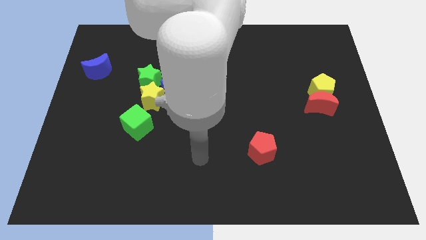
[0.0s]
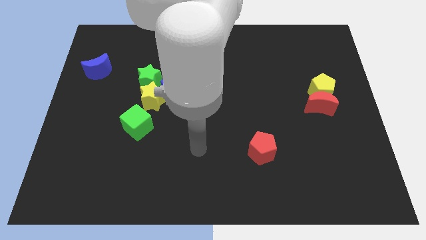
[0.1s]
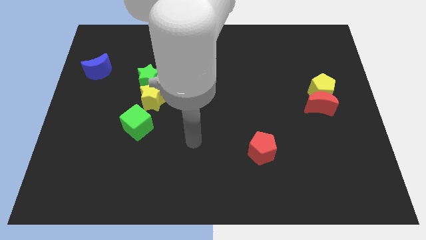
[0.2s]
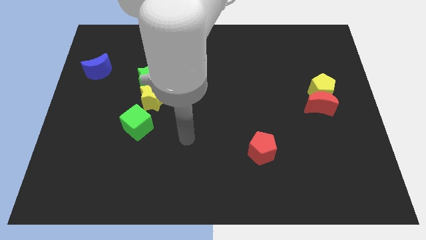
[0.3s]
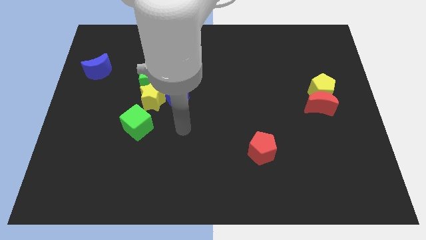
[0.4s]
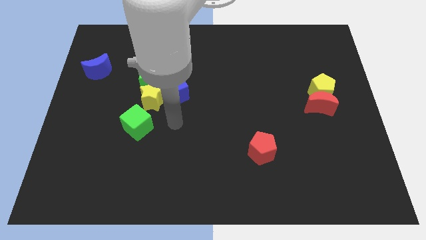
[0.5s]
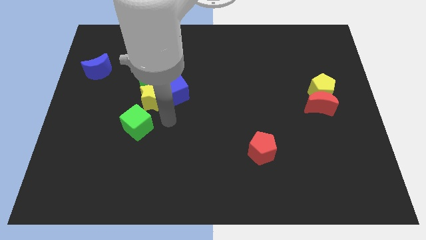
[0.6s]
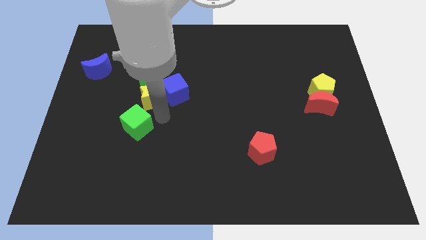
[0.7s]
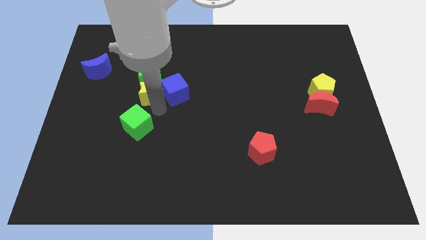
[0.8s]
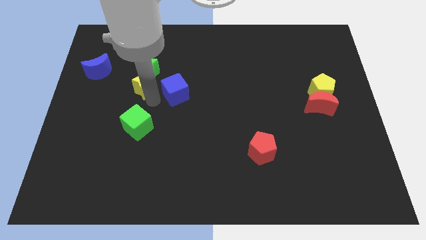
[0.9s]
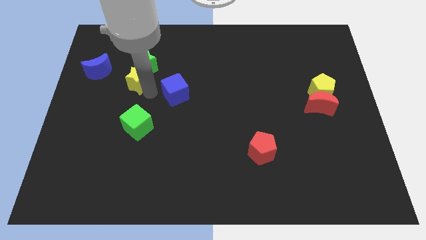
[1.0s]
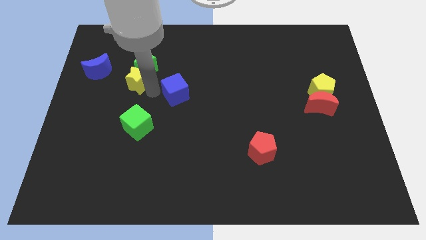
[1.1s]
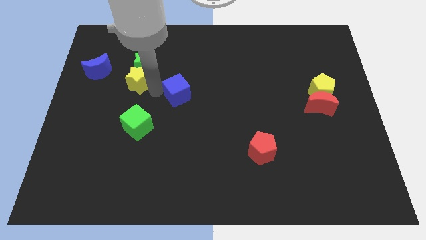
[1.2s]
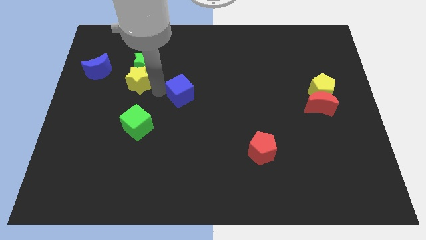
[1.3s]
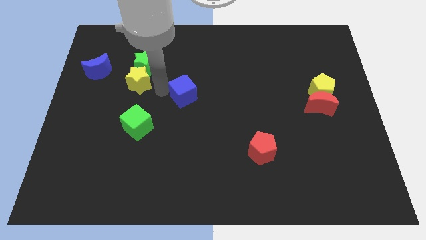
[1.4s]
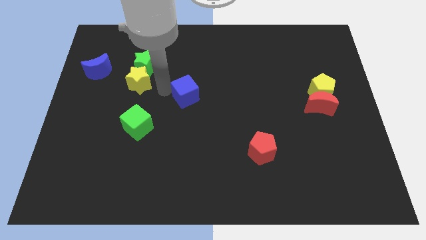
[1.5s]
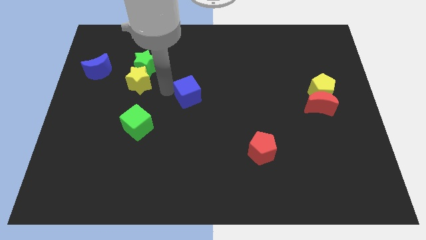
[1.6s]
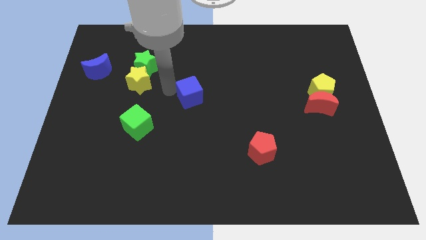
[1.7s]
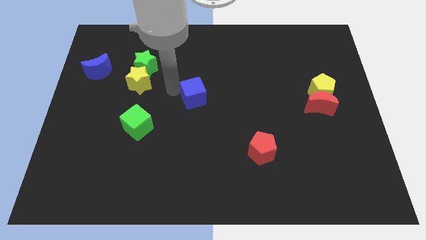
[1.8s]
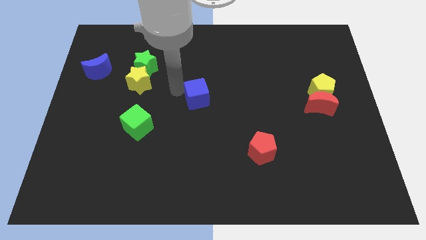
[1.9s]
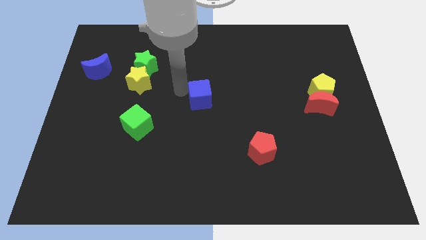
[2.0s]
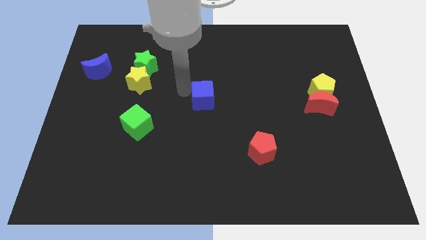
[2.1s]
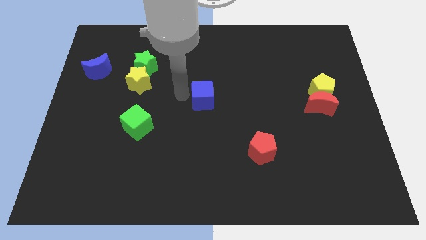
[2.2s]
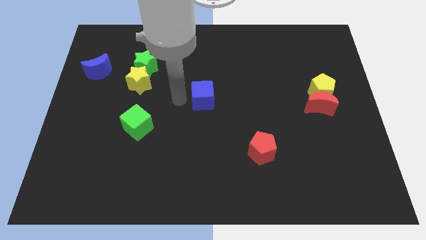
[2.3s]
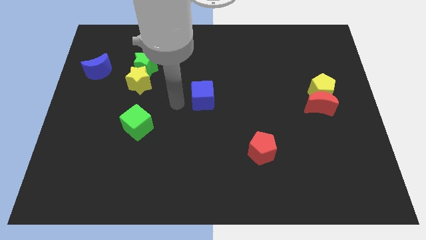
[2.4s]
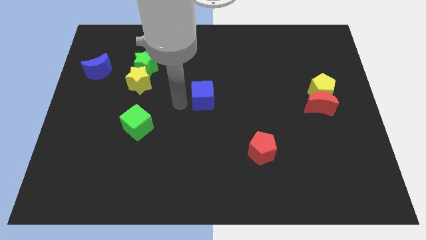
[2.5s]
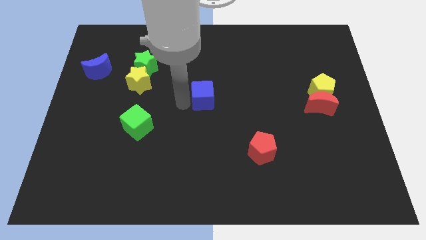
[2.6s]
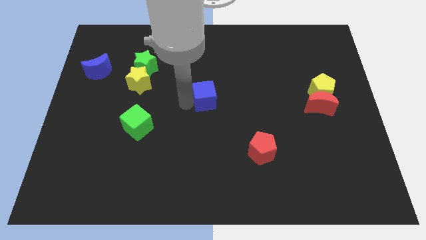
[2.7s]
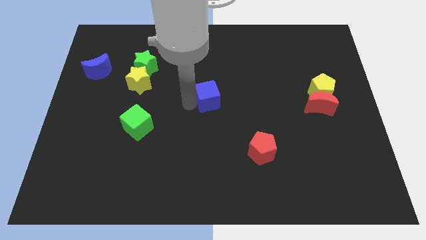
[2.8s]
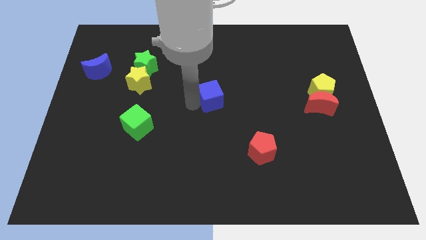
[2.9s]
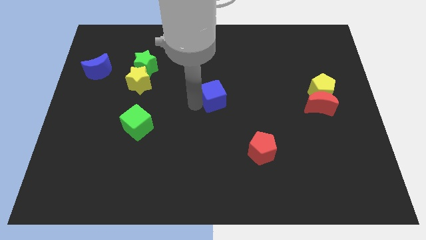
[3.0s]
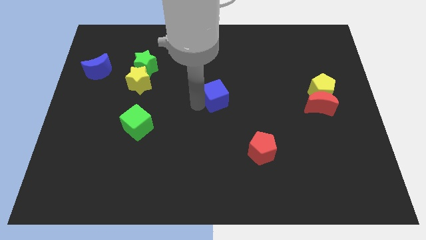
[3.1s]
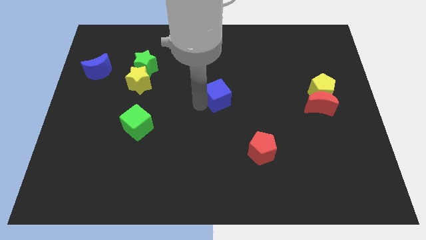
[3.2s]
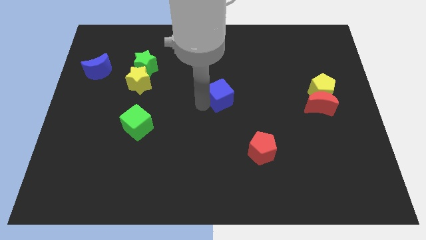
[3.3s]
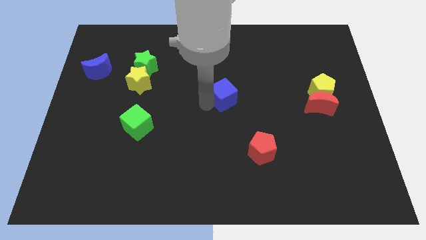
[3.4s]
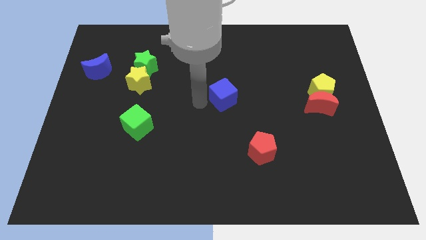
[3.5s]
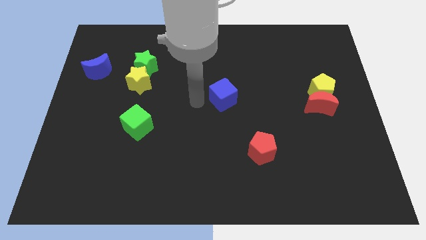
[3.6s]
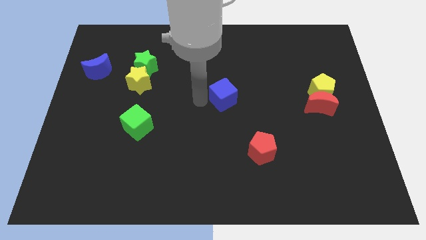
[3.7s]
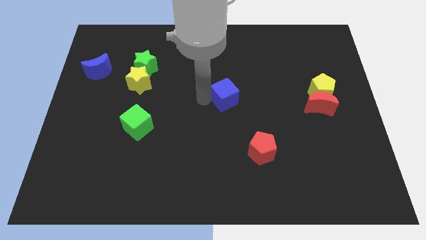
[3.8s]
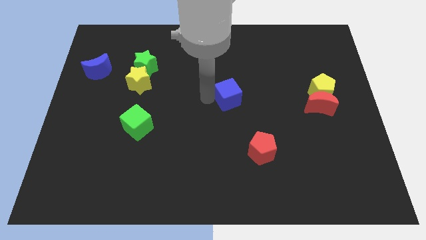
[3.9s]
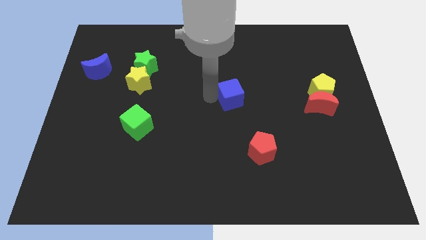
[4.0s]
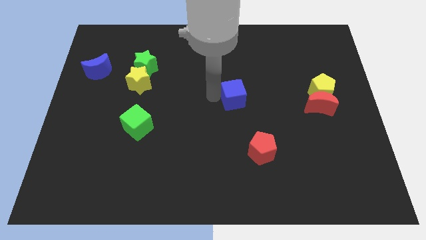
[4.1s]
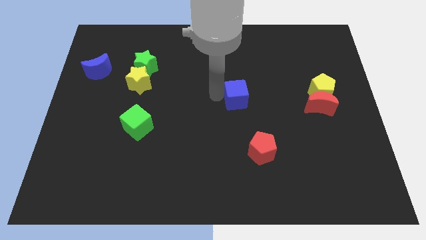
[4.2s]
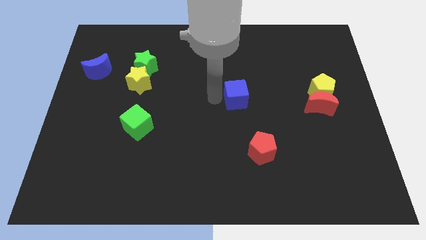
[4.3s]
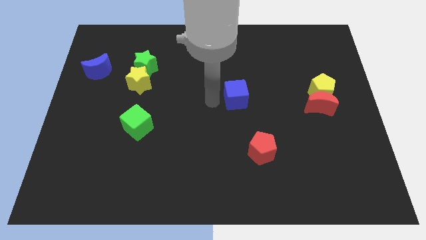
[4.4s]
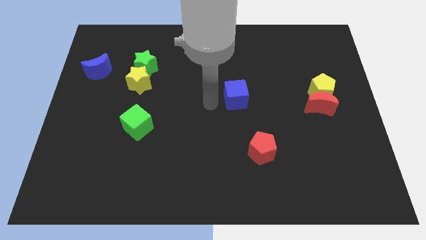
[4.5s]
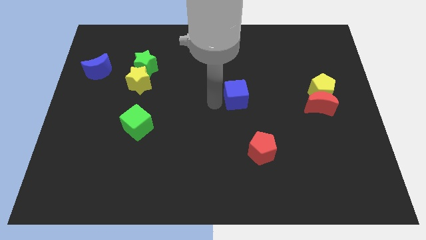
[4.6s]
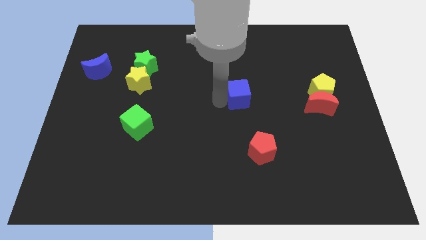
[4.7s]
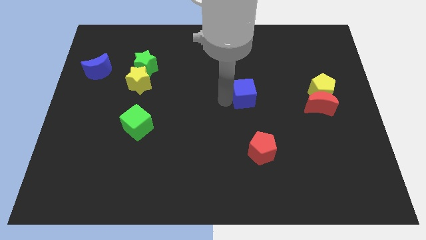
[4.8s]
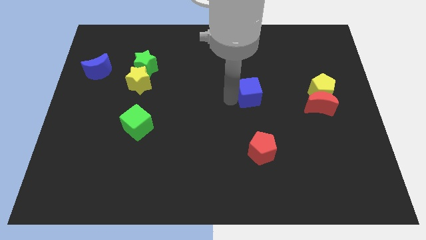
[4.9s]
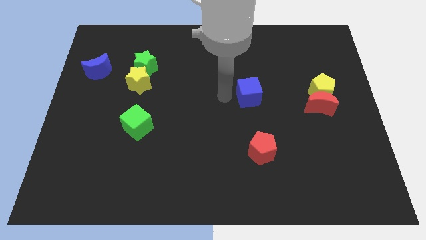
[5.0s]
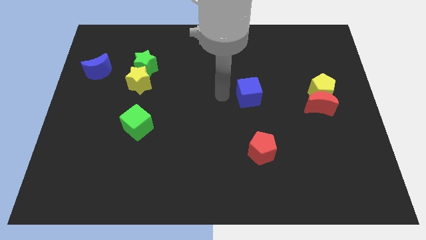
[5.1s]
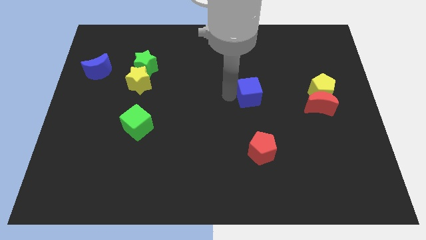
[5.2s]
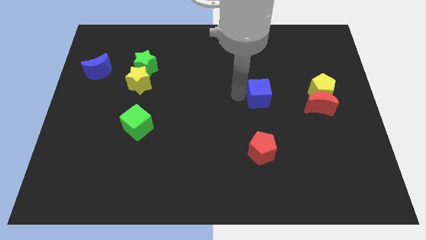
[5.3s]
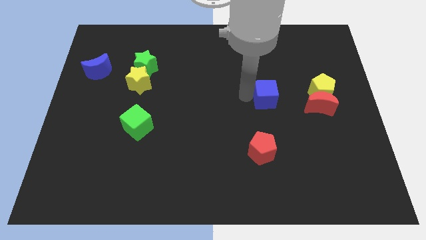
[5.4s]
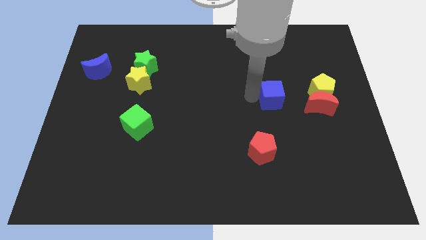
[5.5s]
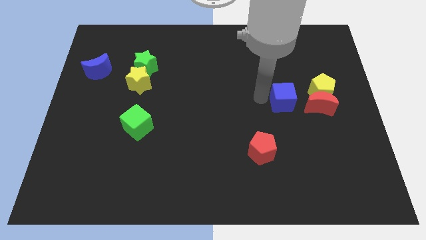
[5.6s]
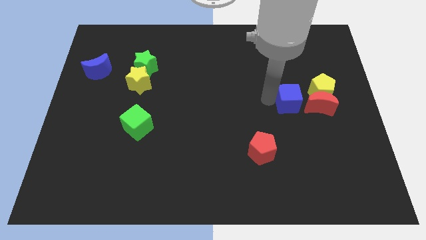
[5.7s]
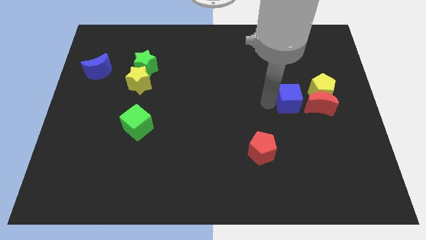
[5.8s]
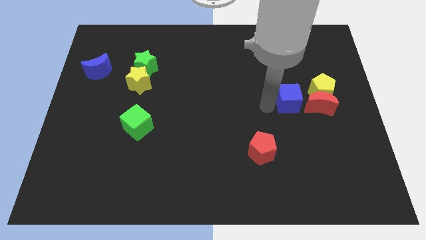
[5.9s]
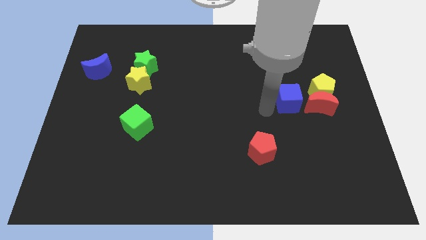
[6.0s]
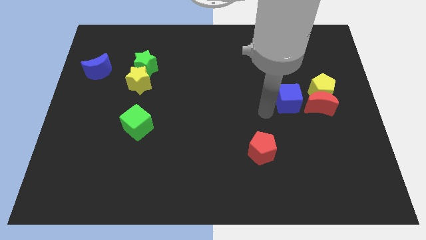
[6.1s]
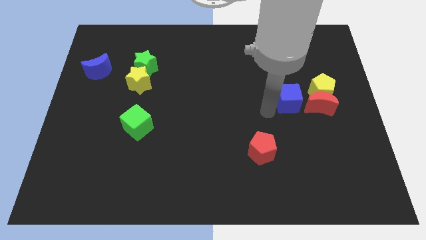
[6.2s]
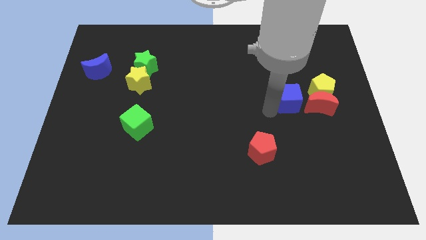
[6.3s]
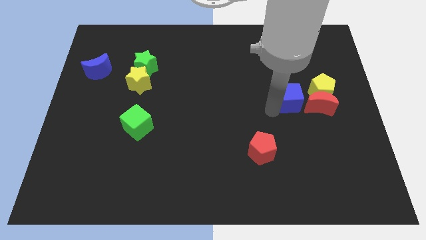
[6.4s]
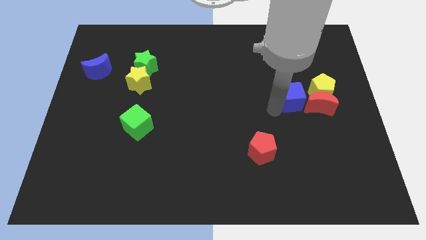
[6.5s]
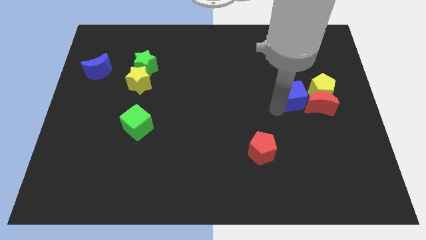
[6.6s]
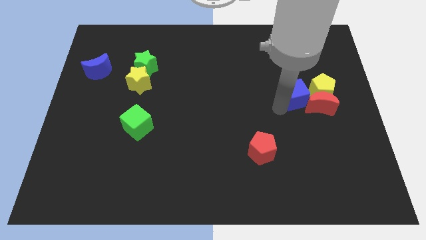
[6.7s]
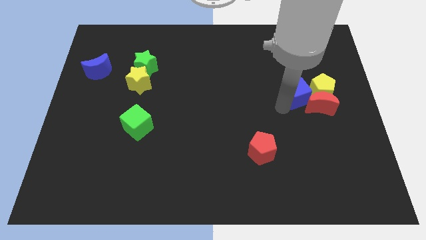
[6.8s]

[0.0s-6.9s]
push the blue cube to the yellow pentagon

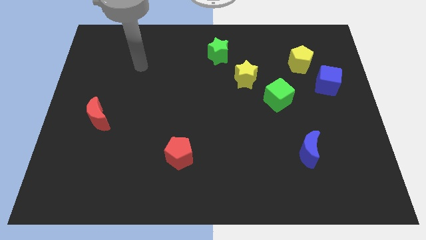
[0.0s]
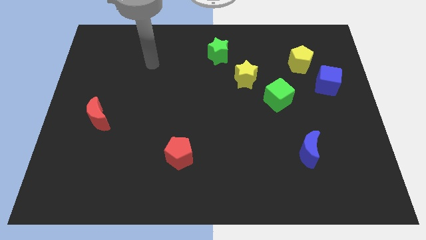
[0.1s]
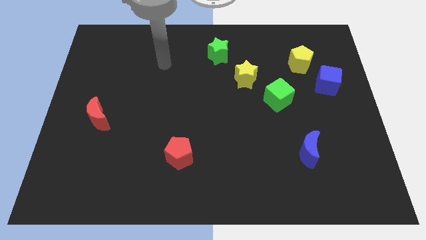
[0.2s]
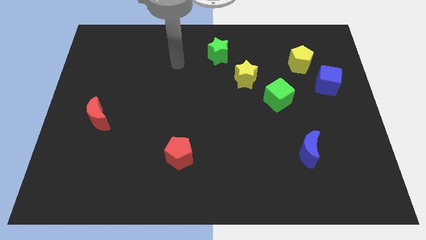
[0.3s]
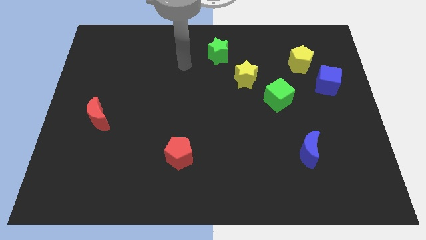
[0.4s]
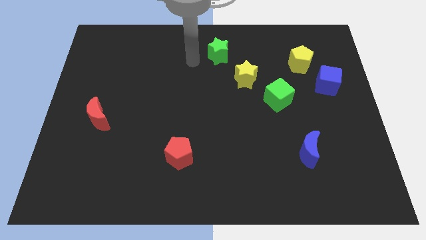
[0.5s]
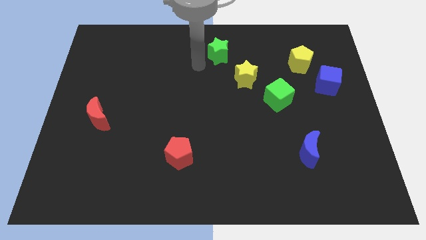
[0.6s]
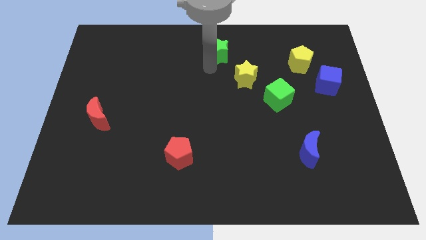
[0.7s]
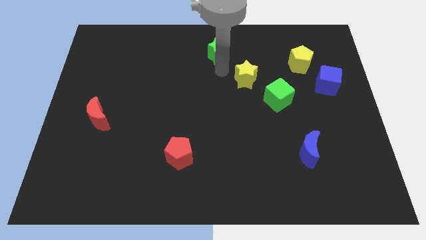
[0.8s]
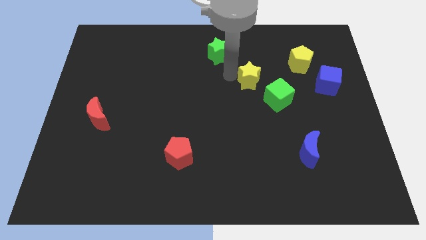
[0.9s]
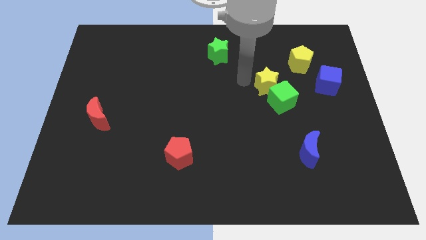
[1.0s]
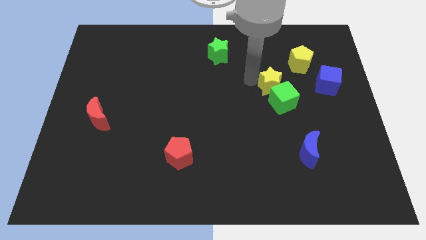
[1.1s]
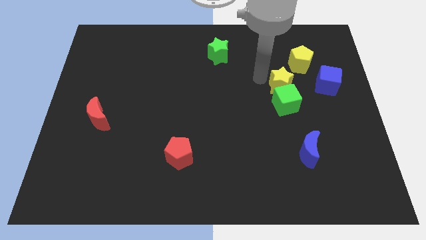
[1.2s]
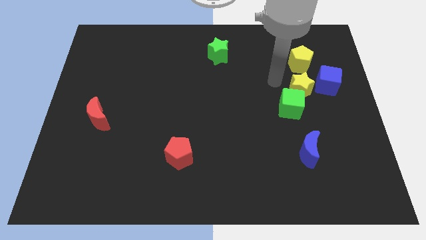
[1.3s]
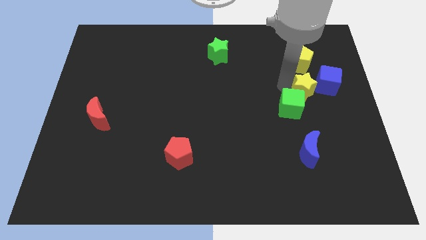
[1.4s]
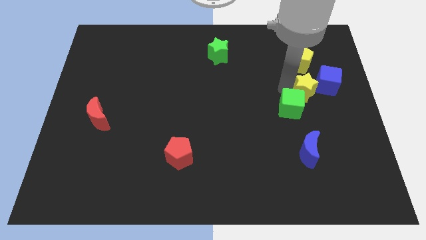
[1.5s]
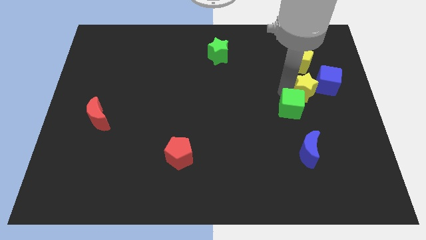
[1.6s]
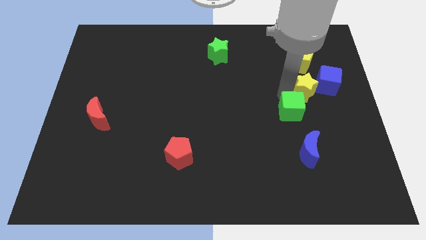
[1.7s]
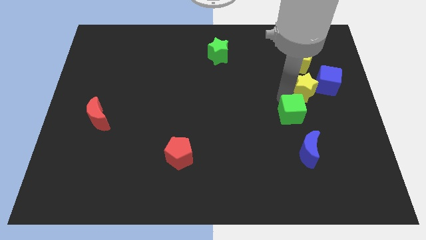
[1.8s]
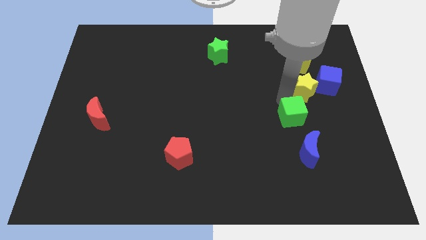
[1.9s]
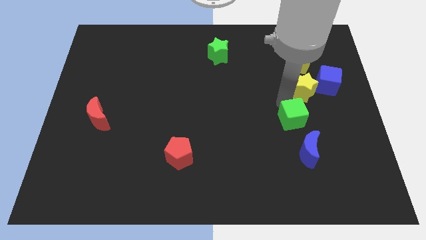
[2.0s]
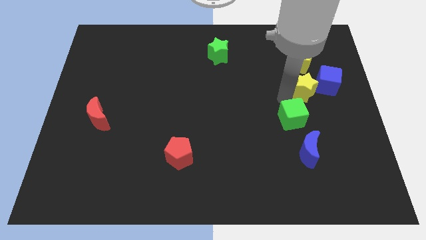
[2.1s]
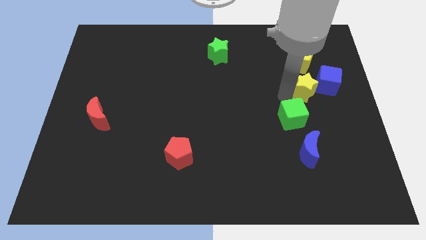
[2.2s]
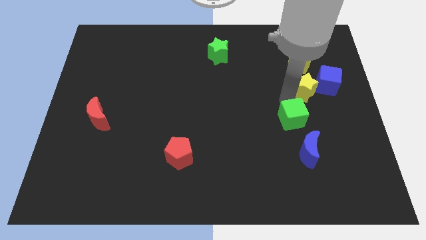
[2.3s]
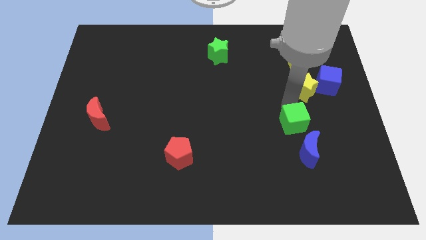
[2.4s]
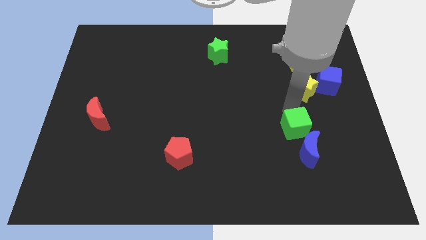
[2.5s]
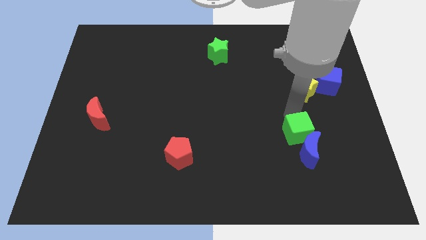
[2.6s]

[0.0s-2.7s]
push the green cube to the blue moon
